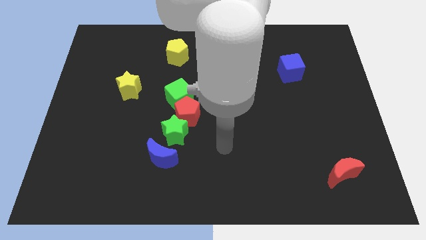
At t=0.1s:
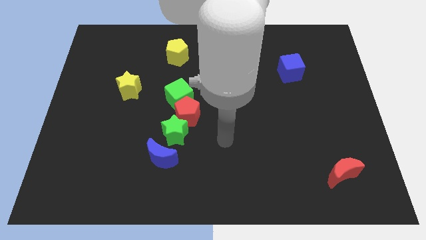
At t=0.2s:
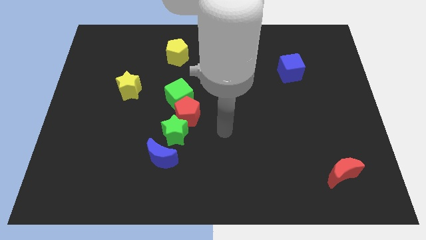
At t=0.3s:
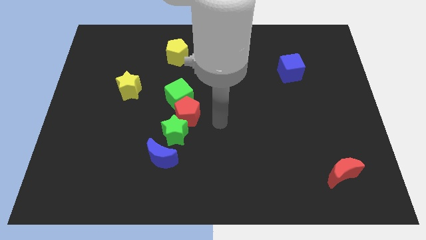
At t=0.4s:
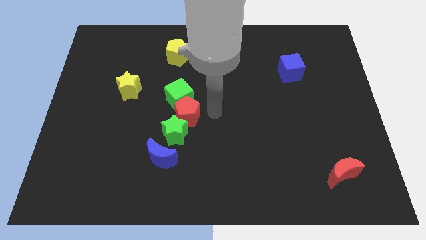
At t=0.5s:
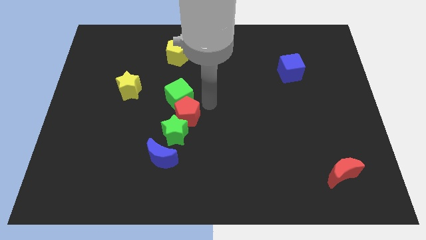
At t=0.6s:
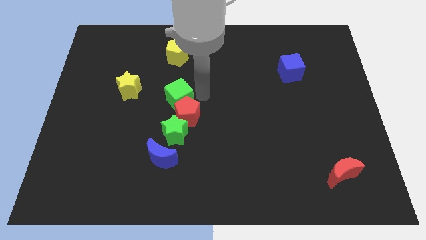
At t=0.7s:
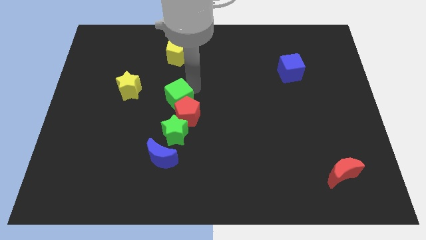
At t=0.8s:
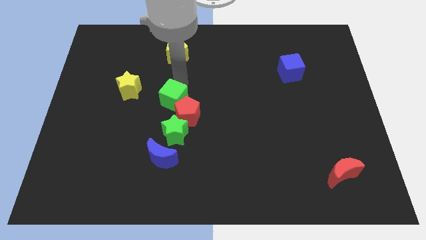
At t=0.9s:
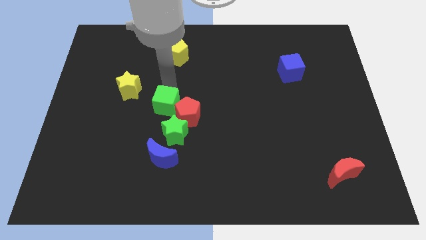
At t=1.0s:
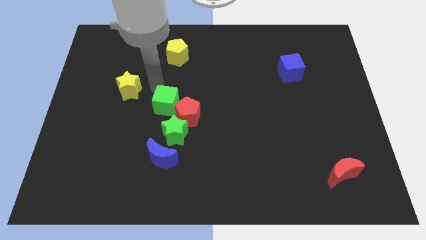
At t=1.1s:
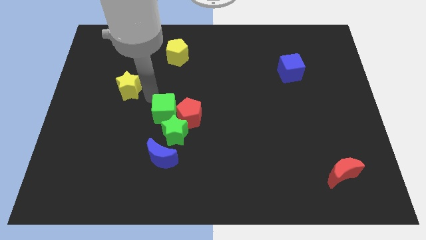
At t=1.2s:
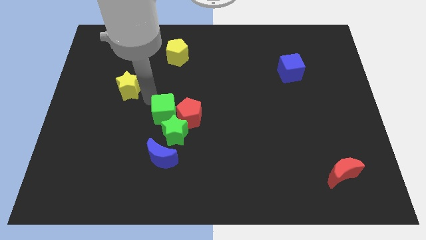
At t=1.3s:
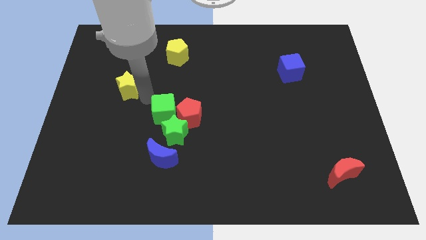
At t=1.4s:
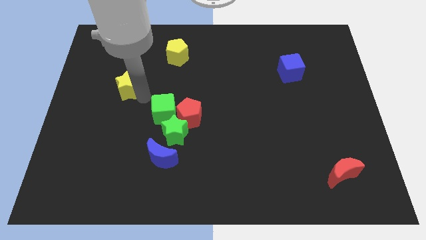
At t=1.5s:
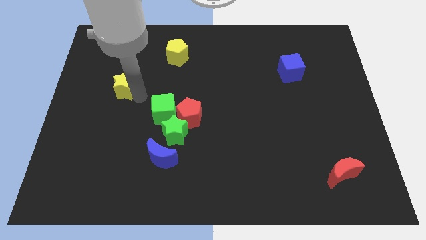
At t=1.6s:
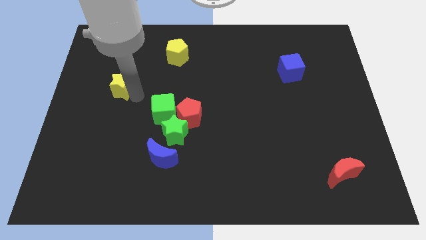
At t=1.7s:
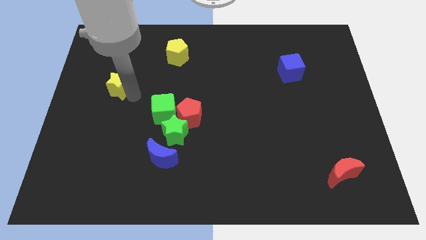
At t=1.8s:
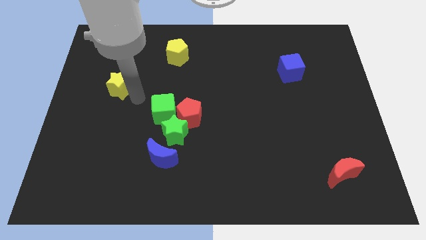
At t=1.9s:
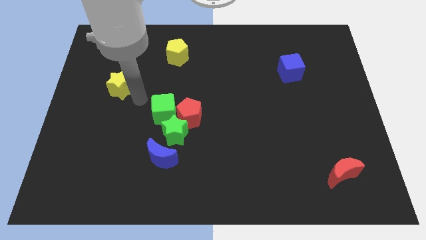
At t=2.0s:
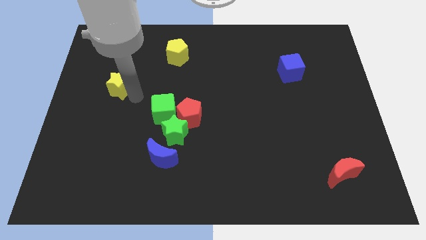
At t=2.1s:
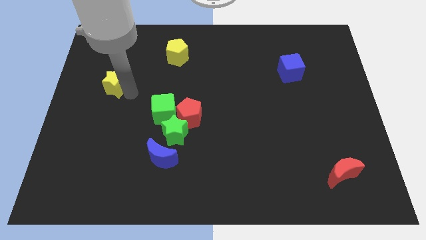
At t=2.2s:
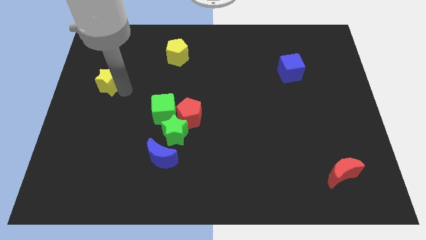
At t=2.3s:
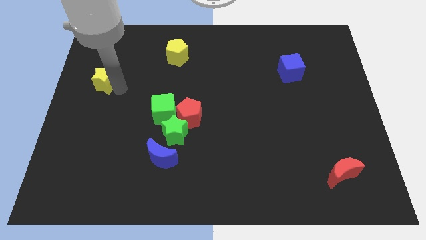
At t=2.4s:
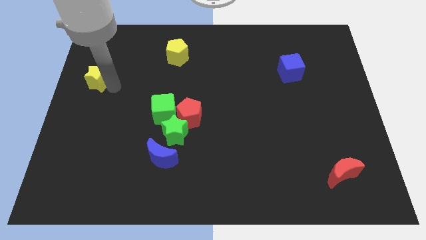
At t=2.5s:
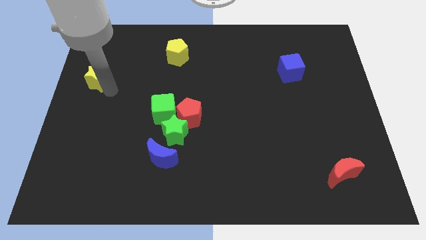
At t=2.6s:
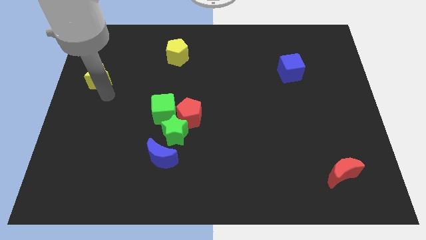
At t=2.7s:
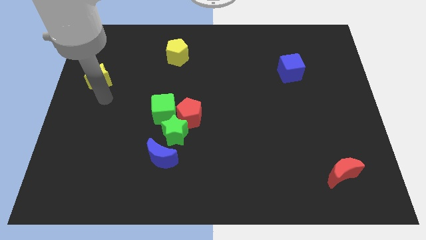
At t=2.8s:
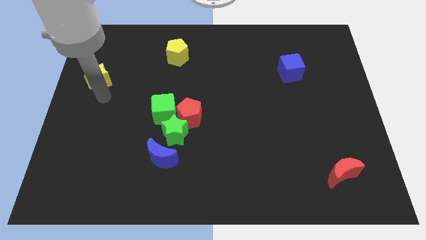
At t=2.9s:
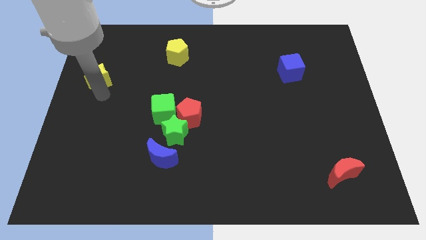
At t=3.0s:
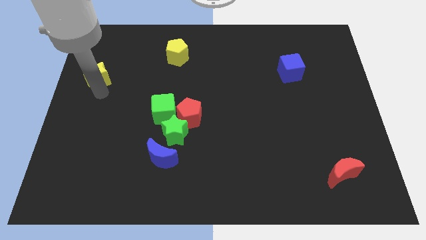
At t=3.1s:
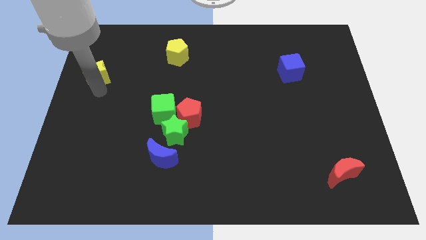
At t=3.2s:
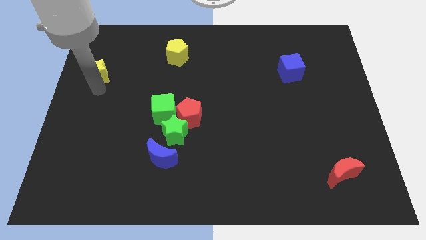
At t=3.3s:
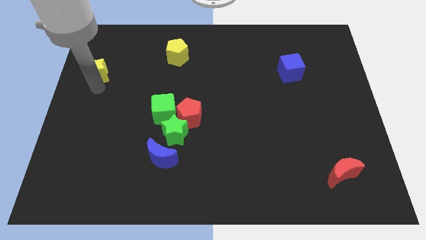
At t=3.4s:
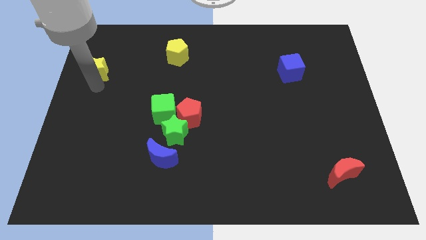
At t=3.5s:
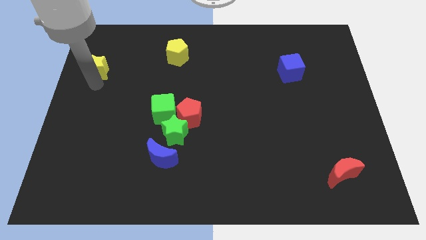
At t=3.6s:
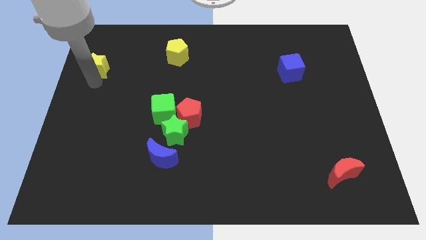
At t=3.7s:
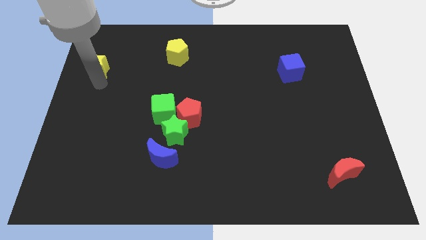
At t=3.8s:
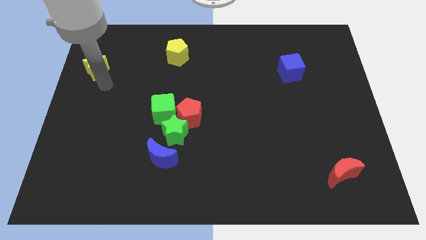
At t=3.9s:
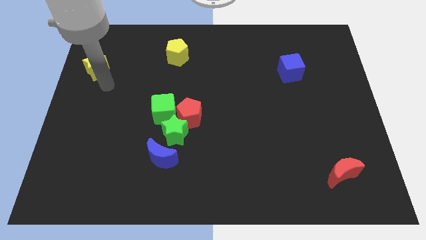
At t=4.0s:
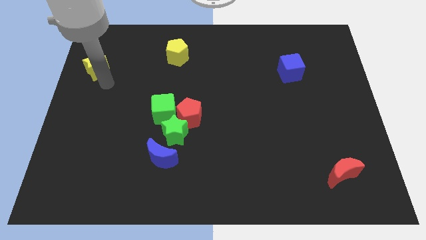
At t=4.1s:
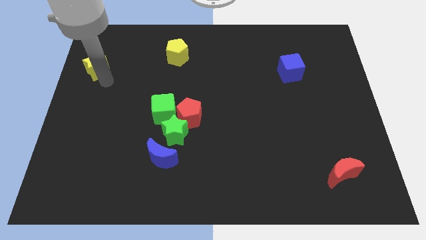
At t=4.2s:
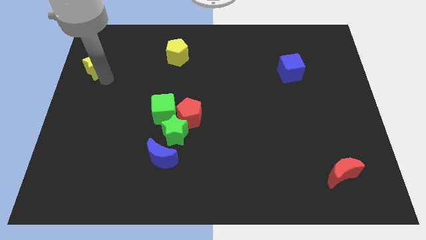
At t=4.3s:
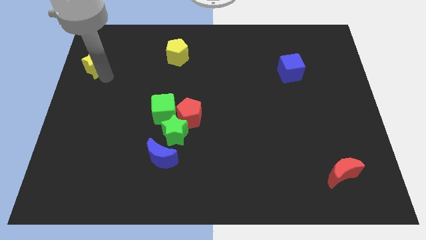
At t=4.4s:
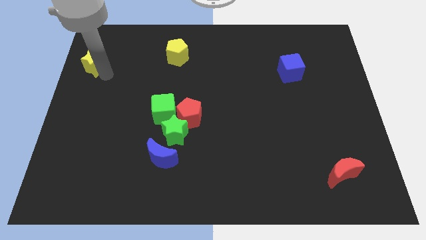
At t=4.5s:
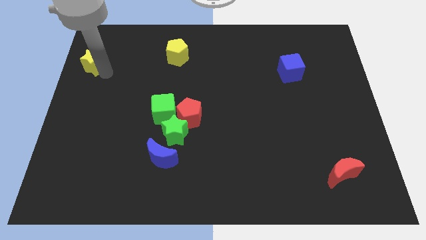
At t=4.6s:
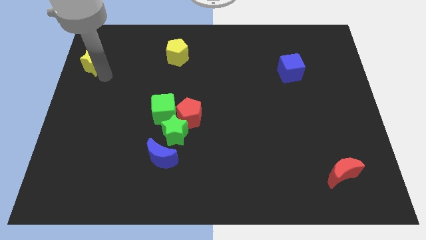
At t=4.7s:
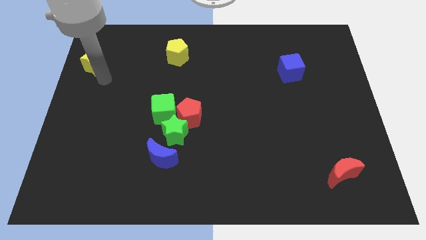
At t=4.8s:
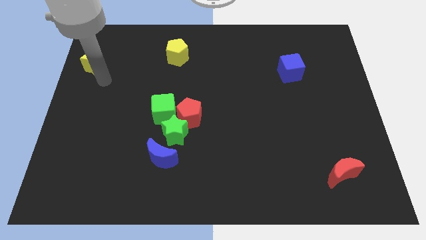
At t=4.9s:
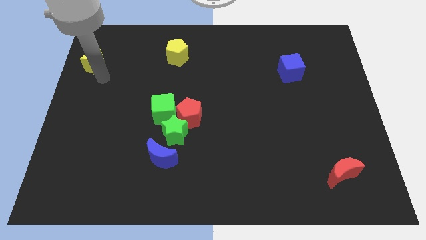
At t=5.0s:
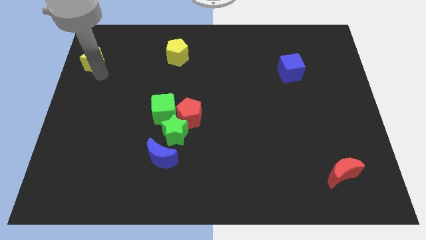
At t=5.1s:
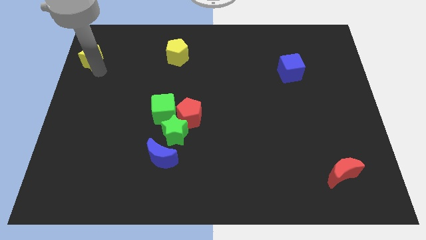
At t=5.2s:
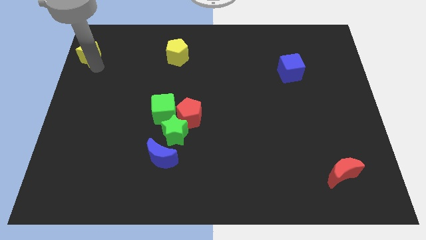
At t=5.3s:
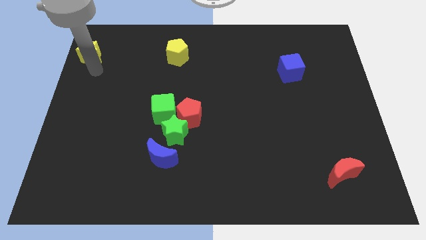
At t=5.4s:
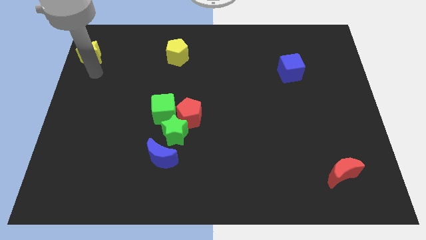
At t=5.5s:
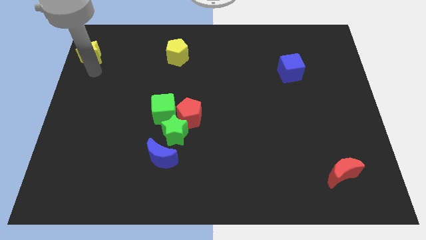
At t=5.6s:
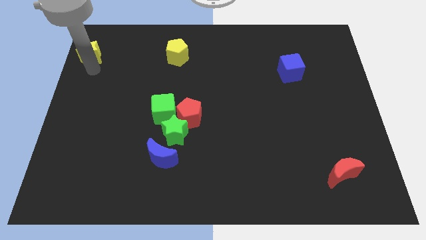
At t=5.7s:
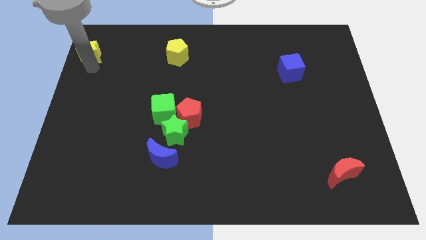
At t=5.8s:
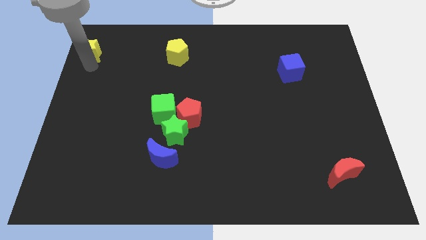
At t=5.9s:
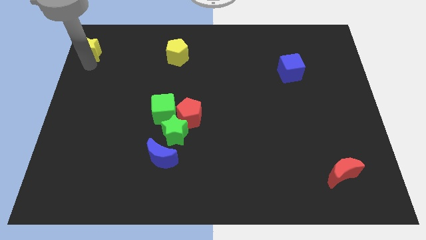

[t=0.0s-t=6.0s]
slide the yellow star to the top left corner
